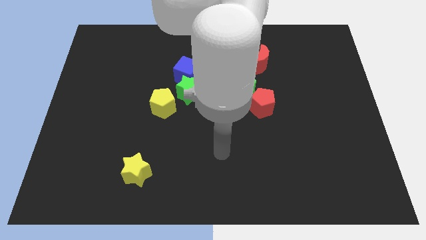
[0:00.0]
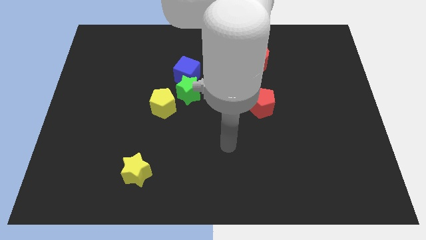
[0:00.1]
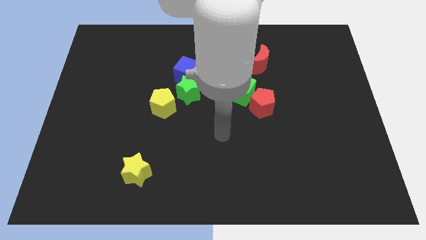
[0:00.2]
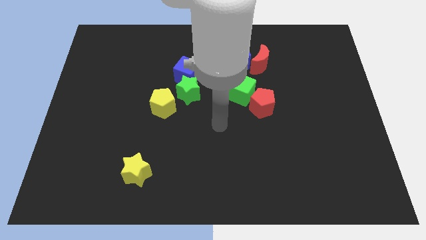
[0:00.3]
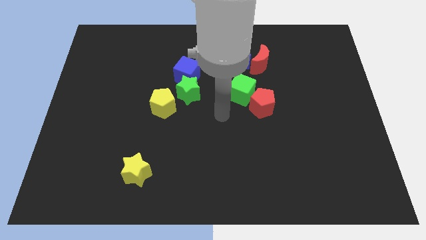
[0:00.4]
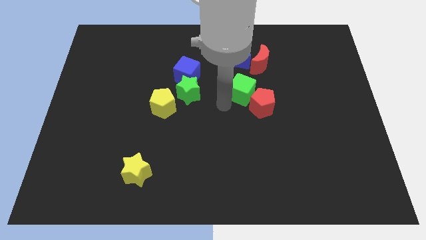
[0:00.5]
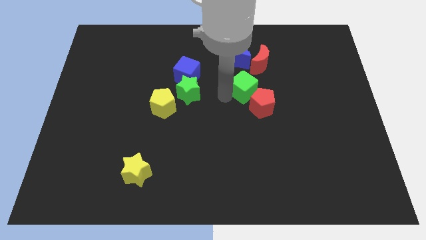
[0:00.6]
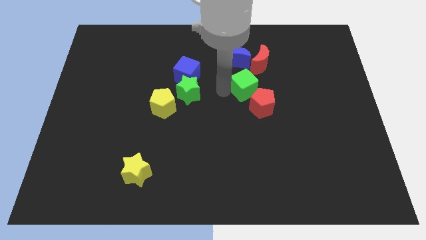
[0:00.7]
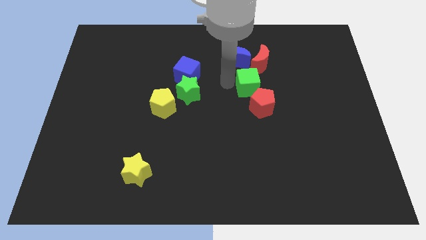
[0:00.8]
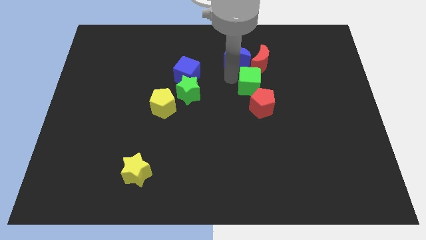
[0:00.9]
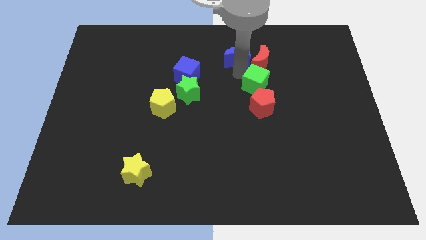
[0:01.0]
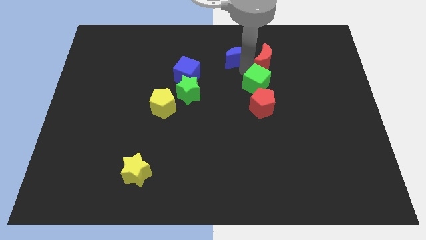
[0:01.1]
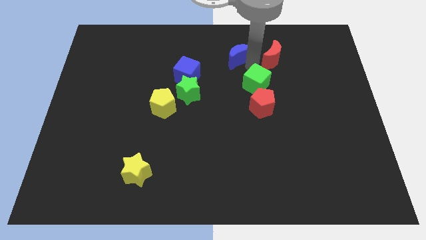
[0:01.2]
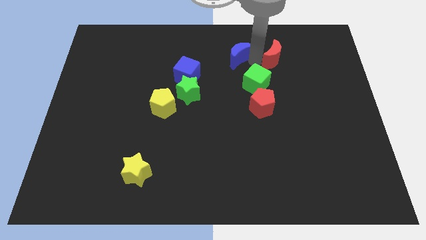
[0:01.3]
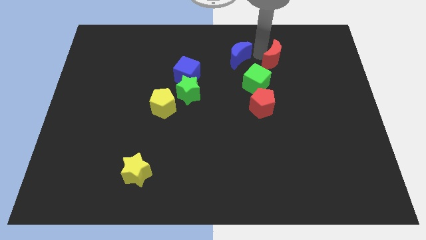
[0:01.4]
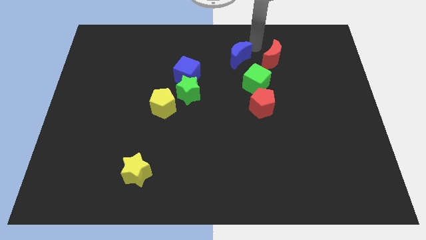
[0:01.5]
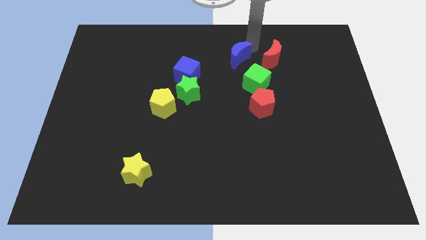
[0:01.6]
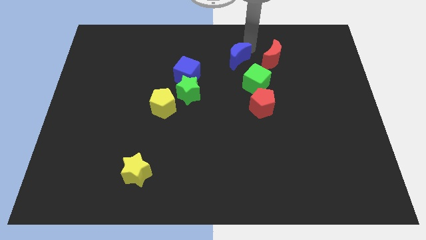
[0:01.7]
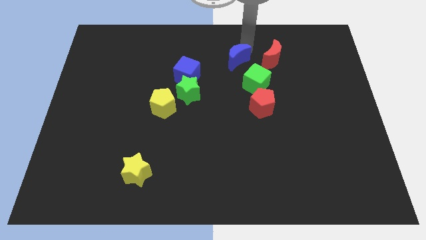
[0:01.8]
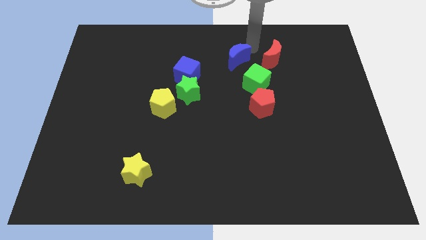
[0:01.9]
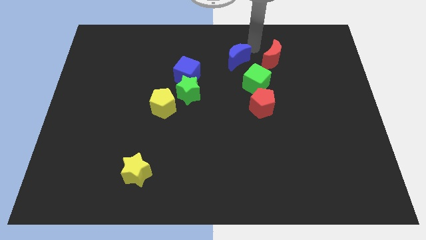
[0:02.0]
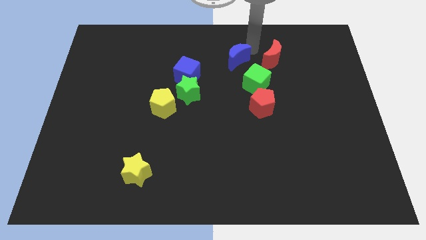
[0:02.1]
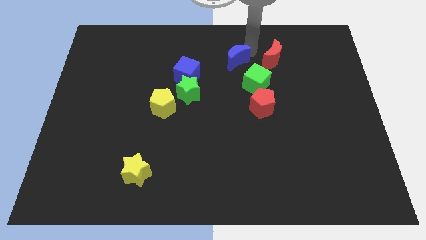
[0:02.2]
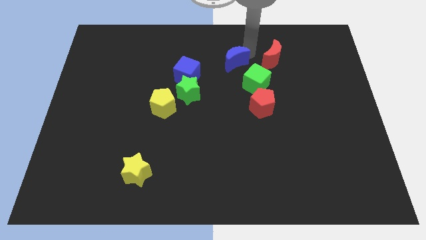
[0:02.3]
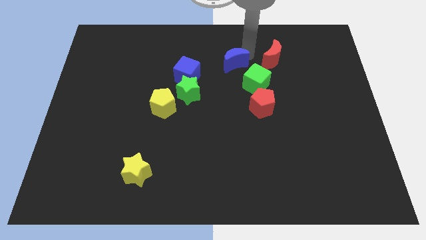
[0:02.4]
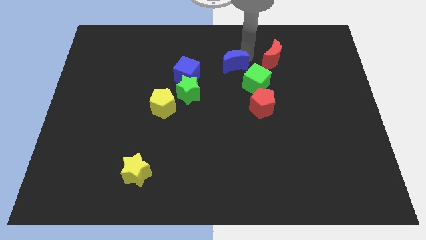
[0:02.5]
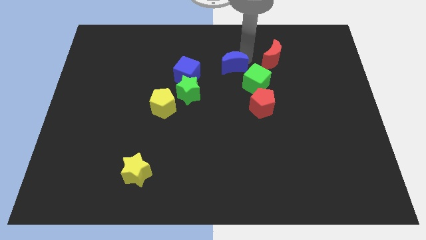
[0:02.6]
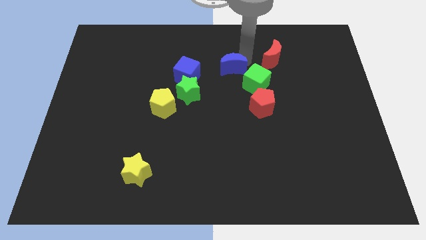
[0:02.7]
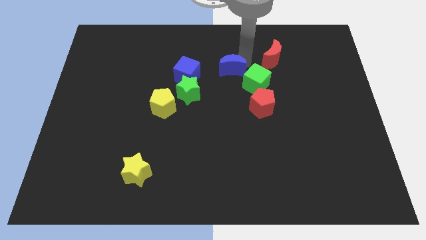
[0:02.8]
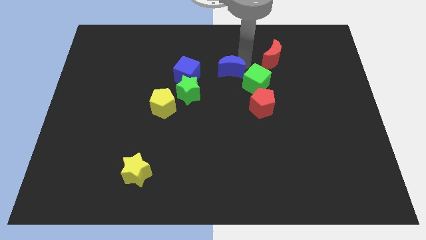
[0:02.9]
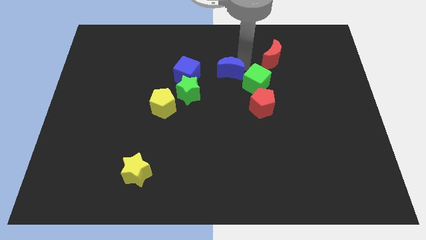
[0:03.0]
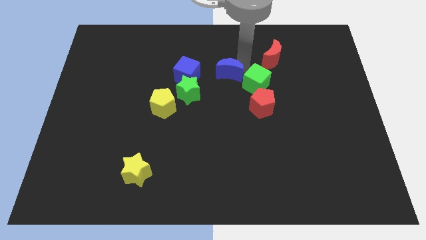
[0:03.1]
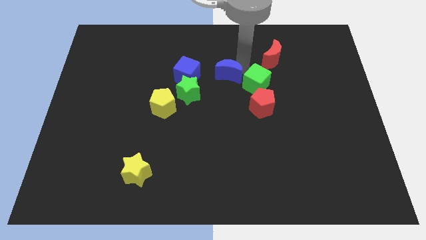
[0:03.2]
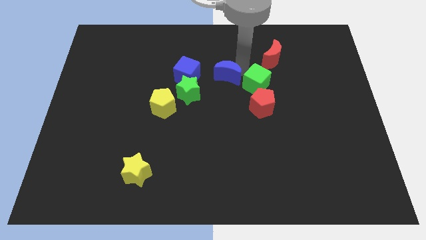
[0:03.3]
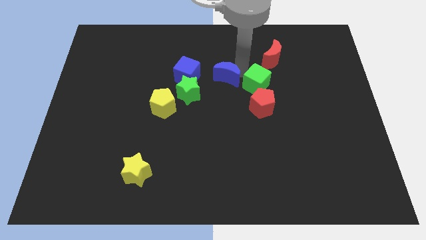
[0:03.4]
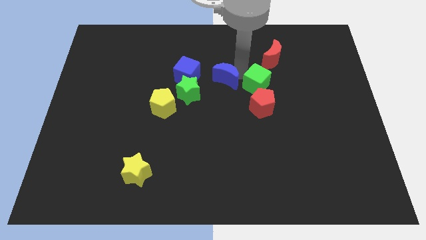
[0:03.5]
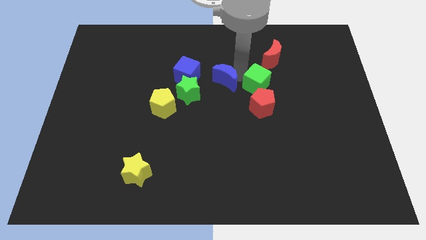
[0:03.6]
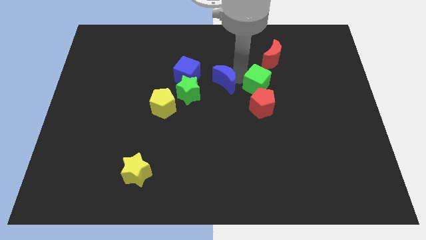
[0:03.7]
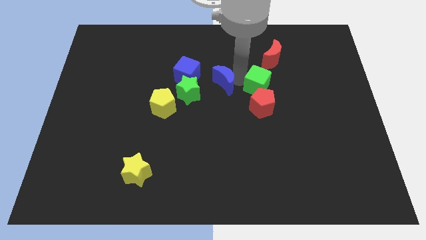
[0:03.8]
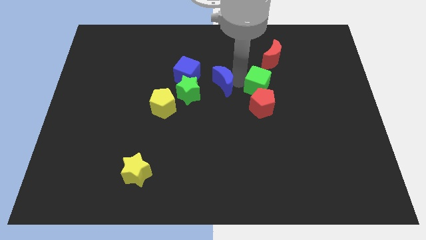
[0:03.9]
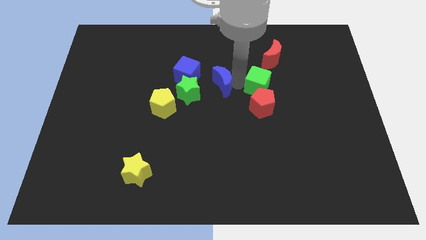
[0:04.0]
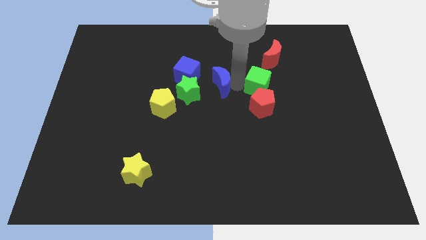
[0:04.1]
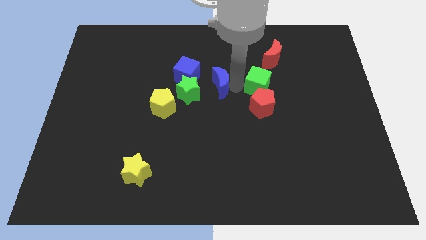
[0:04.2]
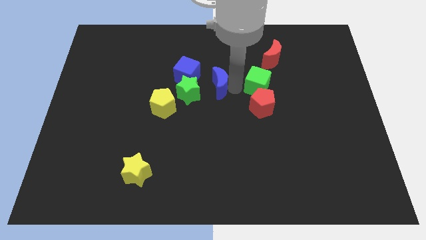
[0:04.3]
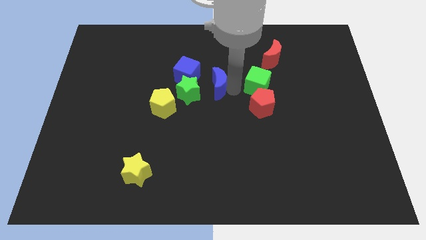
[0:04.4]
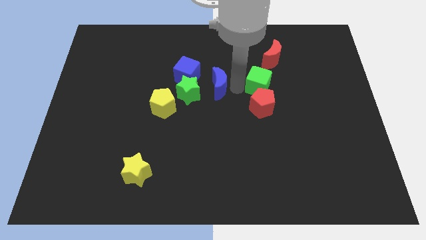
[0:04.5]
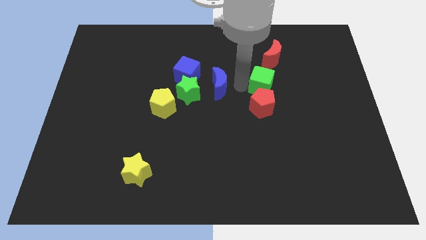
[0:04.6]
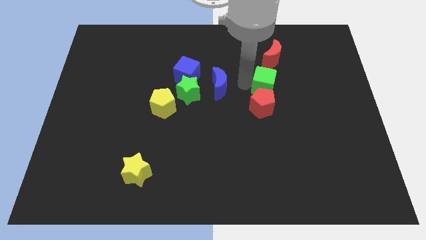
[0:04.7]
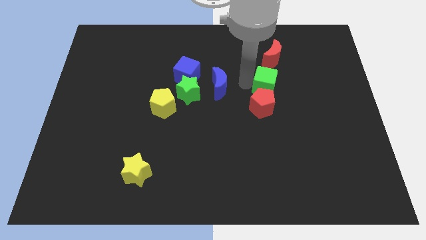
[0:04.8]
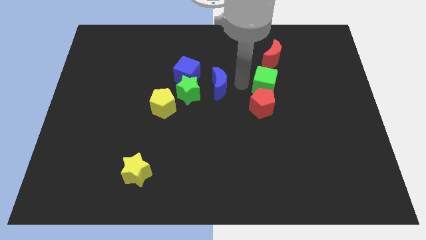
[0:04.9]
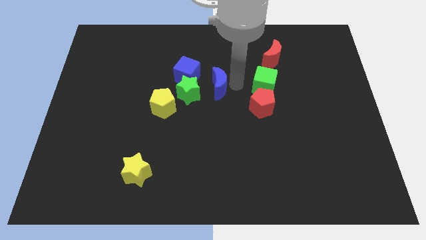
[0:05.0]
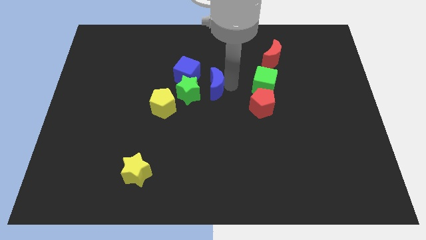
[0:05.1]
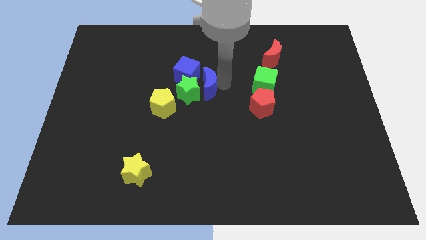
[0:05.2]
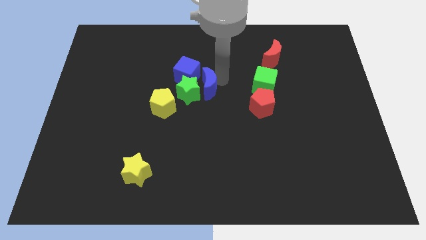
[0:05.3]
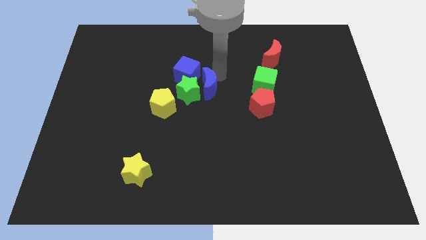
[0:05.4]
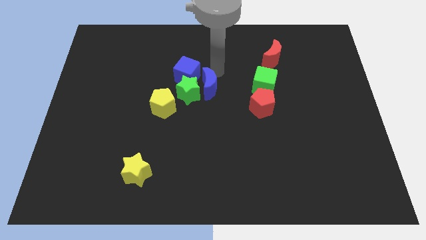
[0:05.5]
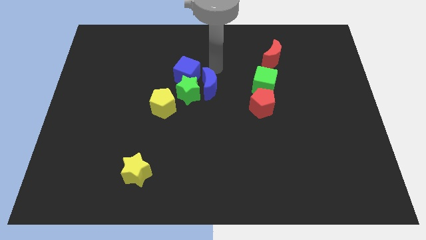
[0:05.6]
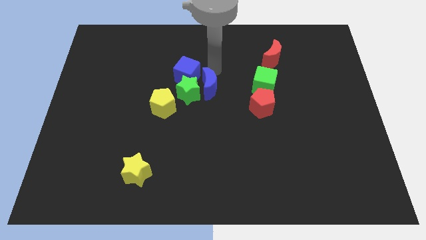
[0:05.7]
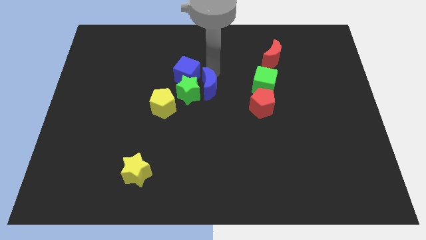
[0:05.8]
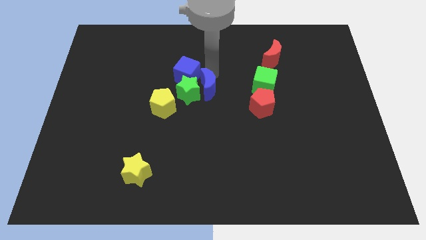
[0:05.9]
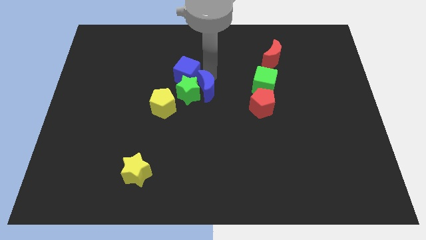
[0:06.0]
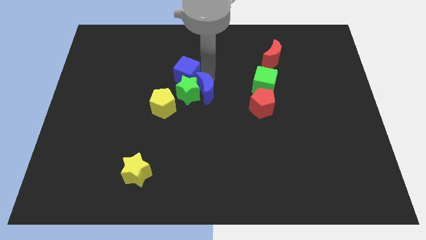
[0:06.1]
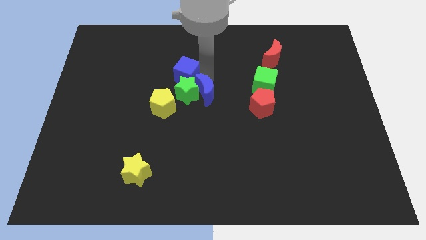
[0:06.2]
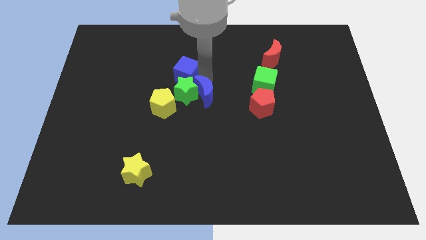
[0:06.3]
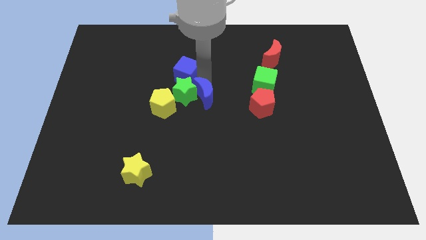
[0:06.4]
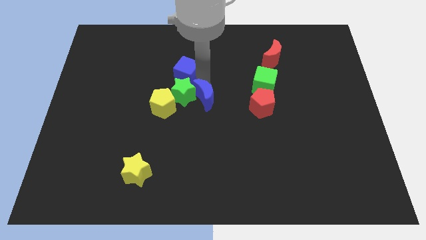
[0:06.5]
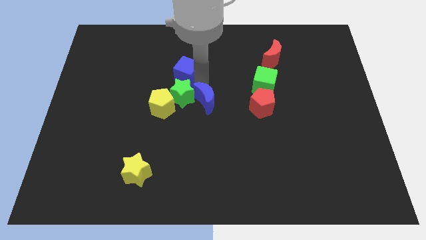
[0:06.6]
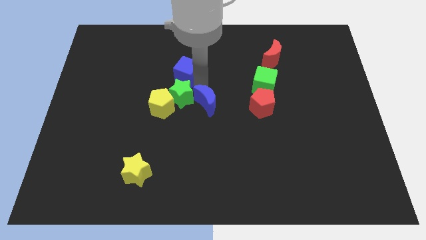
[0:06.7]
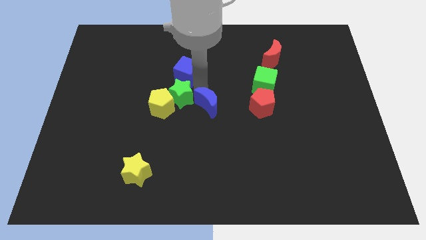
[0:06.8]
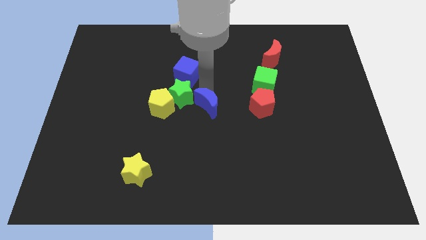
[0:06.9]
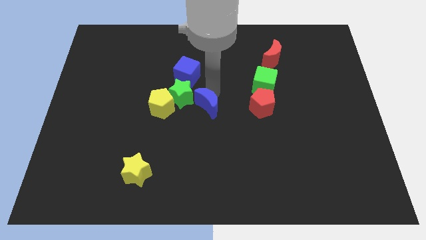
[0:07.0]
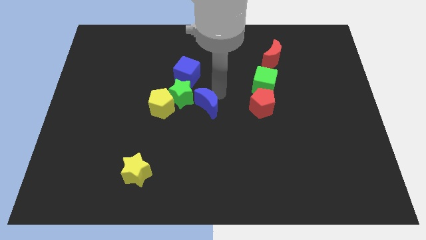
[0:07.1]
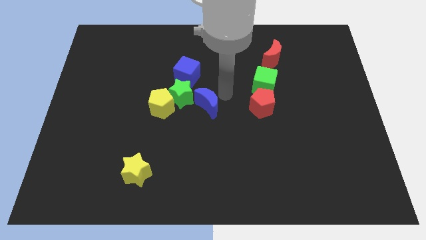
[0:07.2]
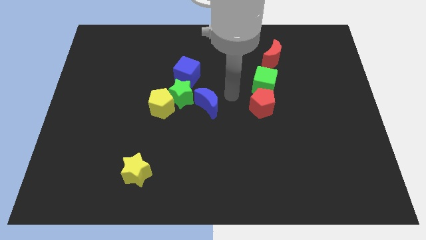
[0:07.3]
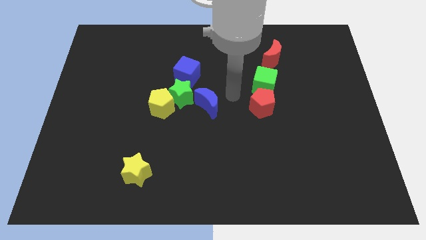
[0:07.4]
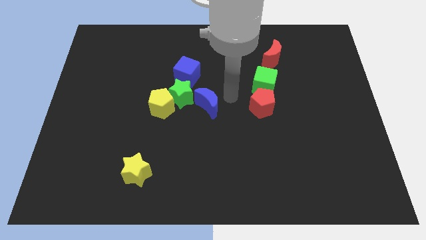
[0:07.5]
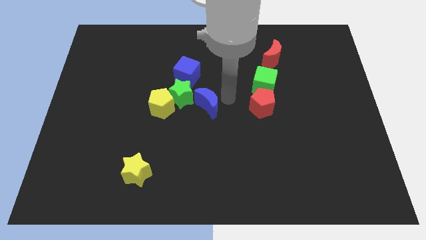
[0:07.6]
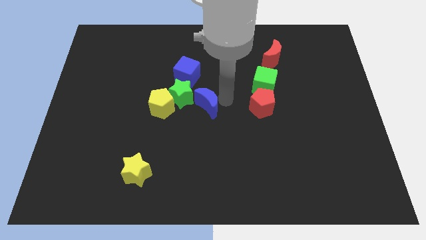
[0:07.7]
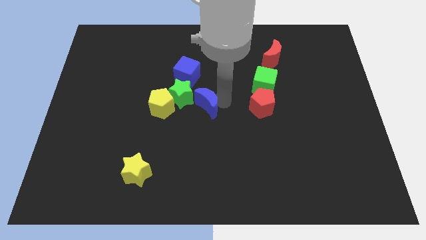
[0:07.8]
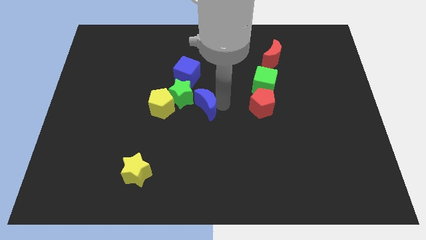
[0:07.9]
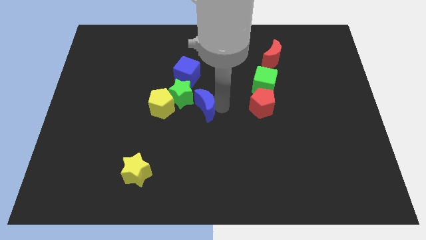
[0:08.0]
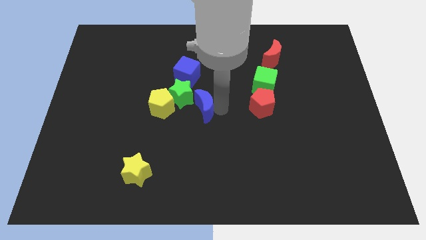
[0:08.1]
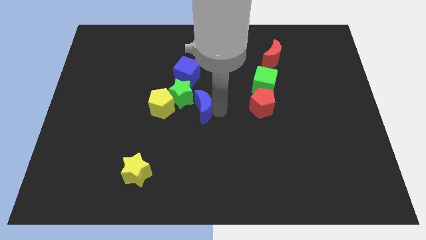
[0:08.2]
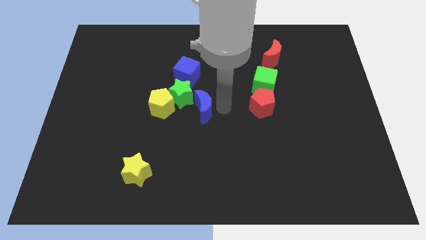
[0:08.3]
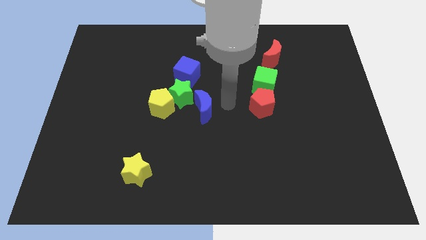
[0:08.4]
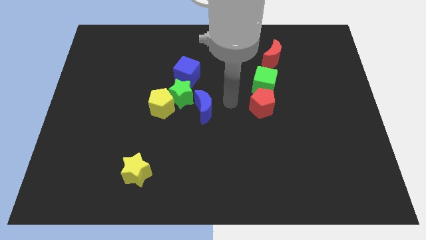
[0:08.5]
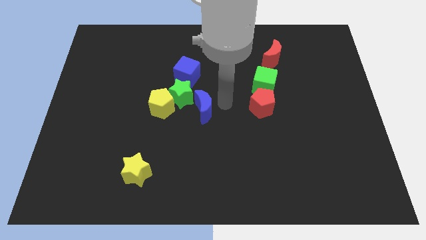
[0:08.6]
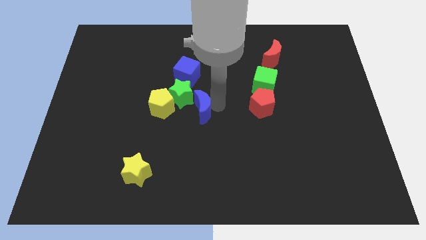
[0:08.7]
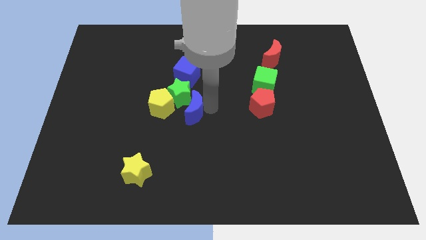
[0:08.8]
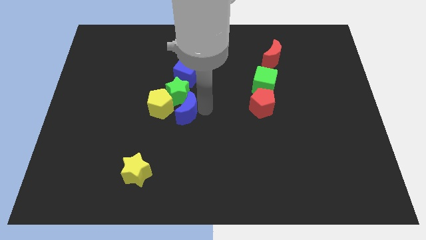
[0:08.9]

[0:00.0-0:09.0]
slide the blue moon downwards and left
